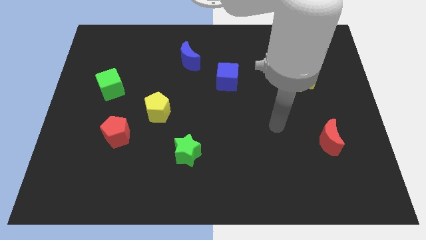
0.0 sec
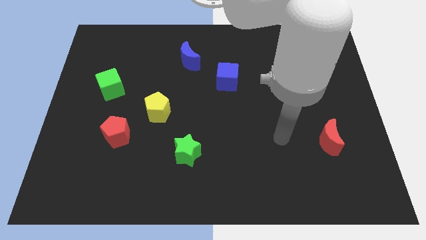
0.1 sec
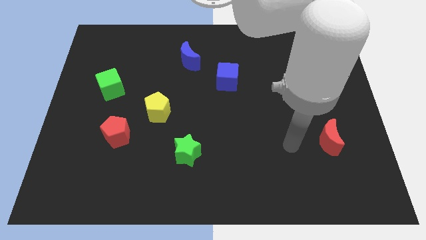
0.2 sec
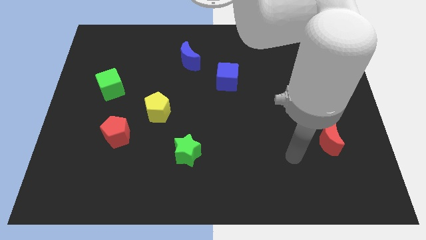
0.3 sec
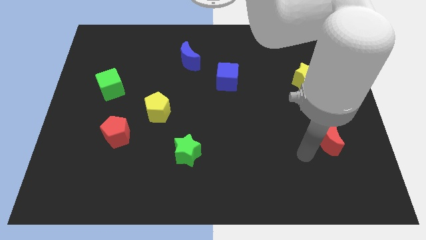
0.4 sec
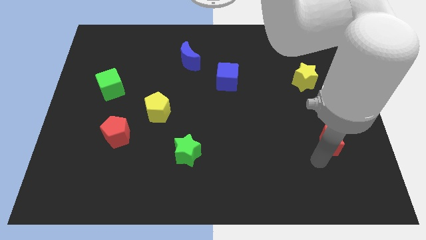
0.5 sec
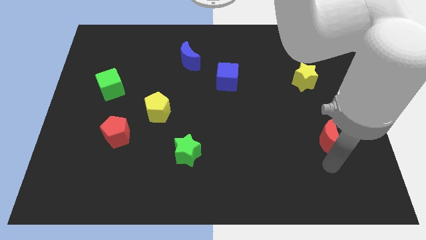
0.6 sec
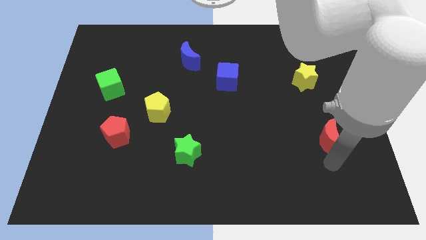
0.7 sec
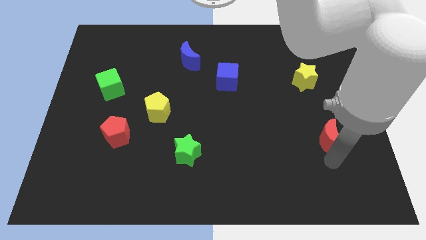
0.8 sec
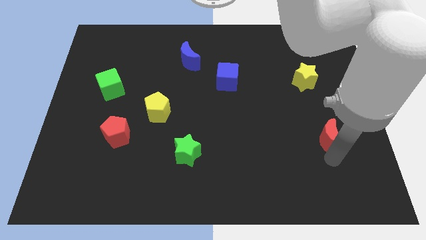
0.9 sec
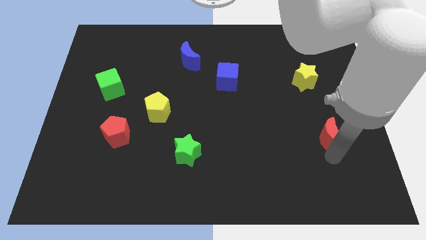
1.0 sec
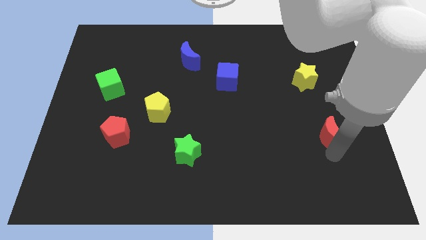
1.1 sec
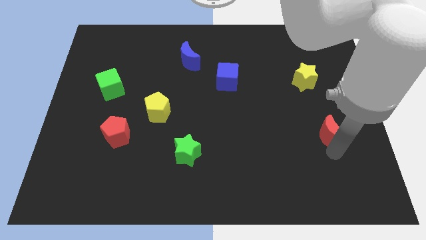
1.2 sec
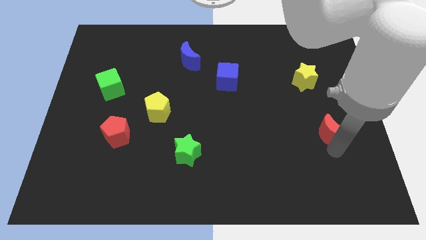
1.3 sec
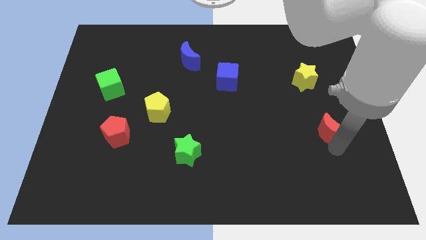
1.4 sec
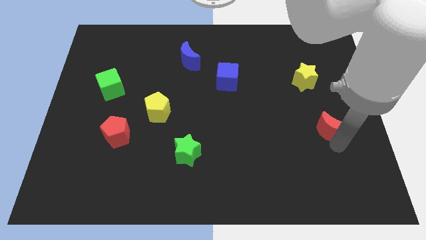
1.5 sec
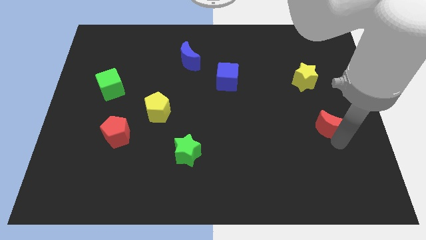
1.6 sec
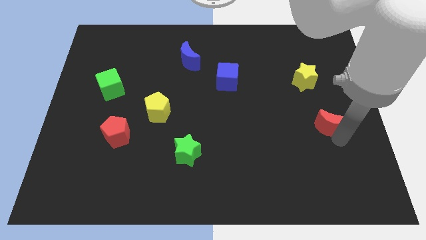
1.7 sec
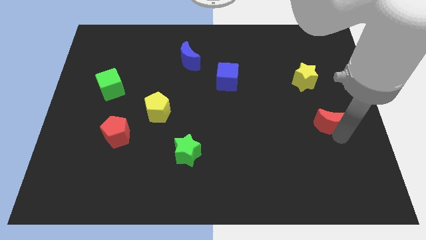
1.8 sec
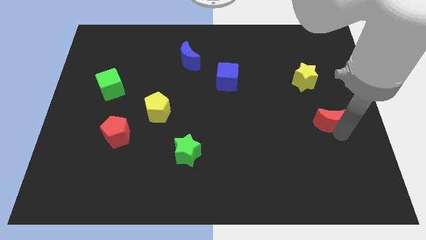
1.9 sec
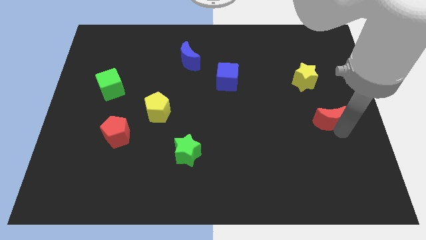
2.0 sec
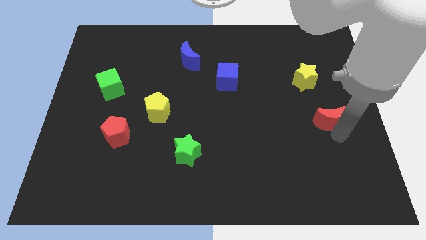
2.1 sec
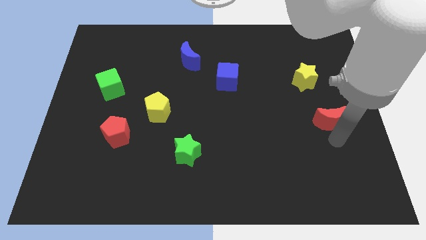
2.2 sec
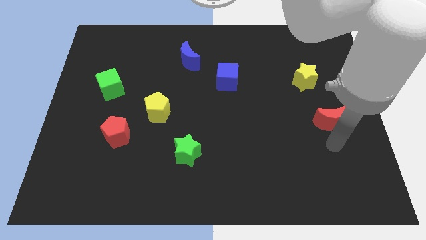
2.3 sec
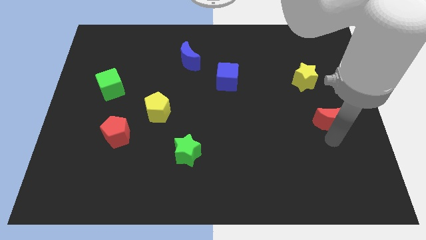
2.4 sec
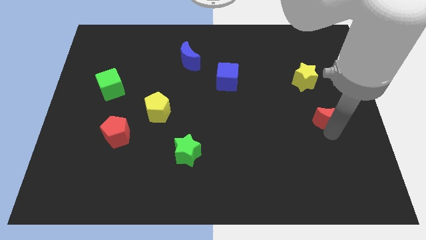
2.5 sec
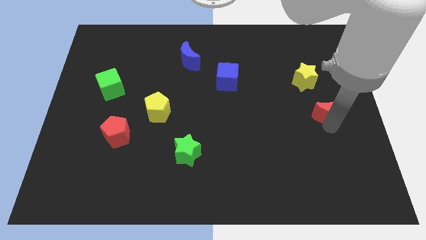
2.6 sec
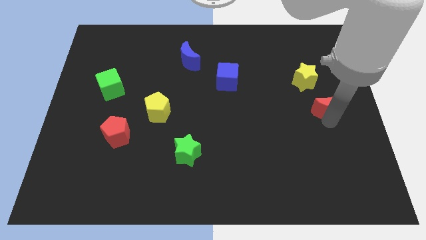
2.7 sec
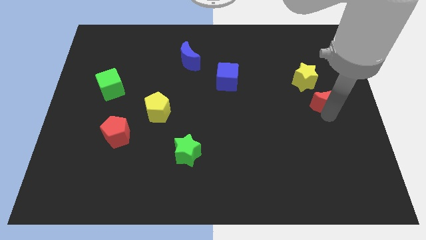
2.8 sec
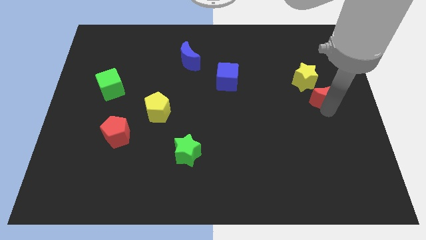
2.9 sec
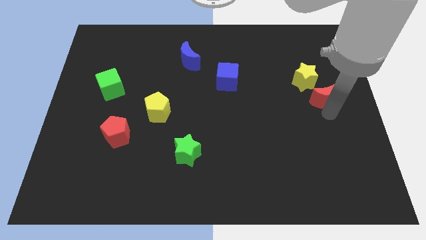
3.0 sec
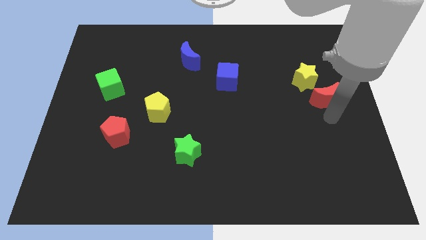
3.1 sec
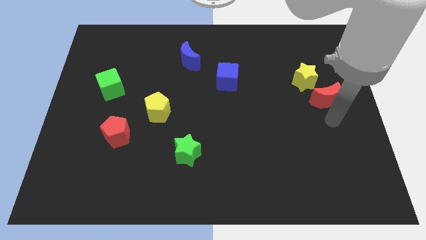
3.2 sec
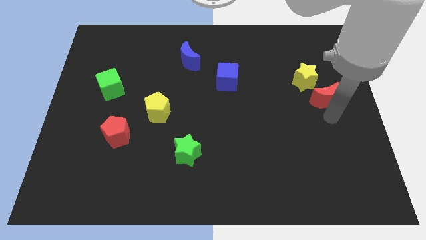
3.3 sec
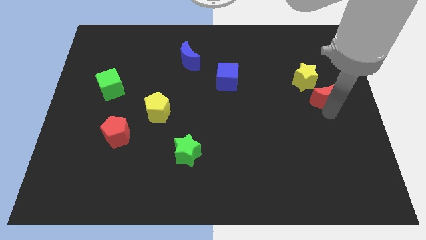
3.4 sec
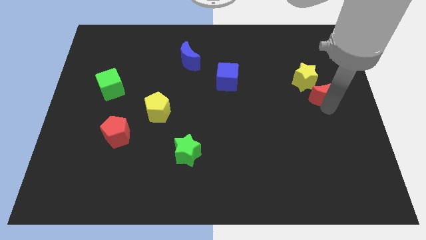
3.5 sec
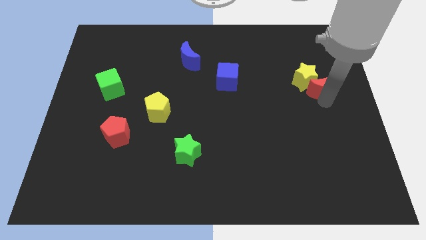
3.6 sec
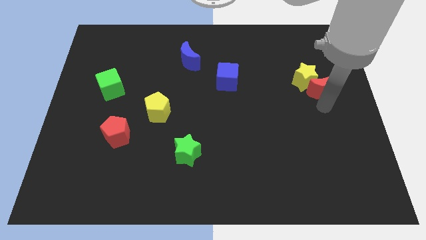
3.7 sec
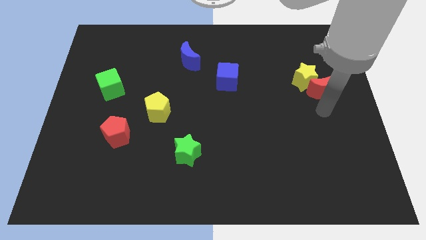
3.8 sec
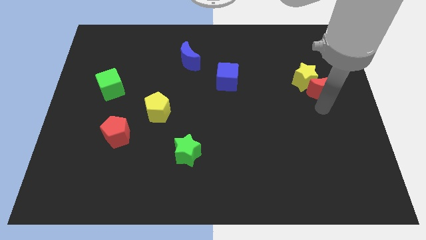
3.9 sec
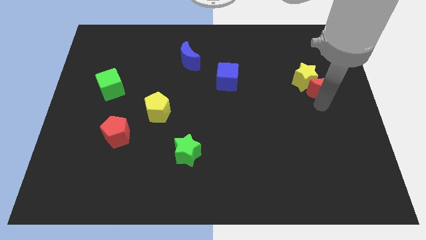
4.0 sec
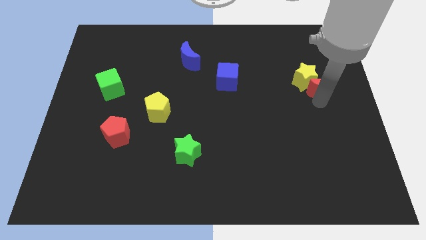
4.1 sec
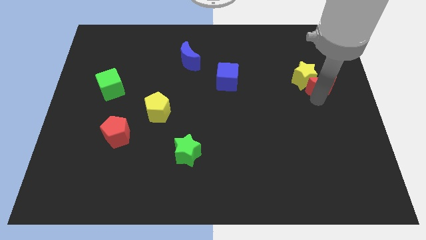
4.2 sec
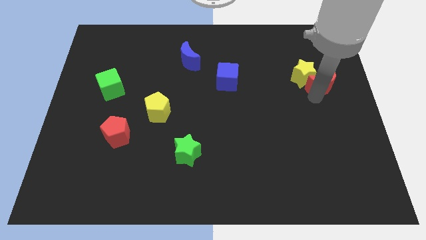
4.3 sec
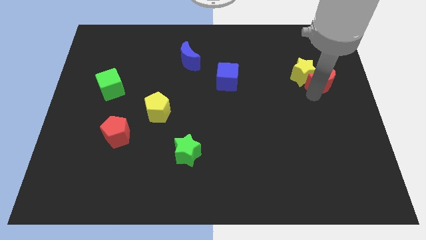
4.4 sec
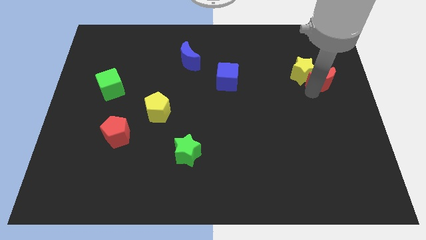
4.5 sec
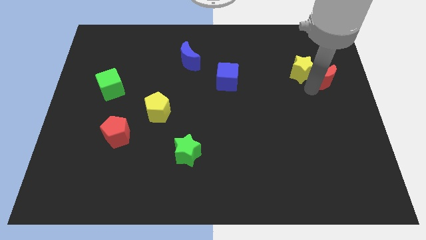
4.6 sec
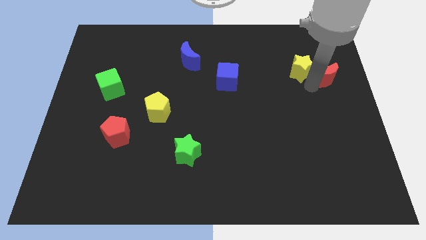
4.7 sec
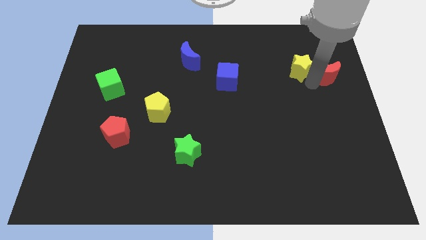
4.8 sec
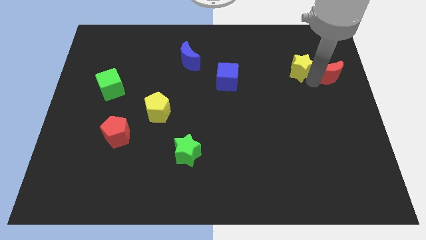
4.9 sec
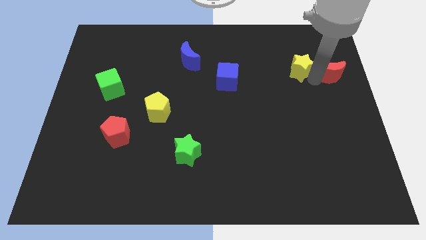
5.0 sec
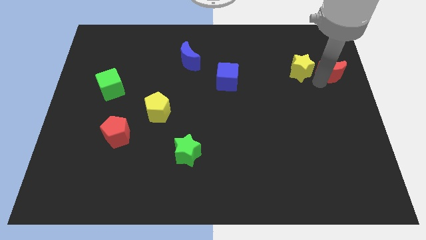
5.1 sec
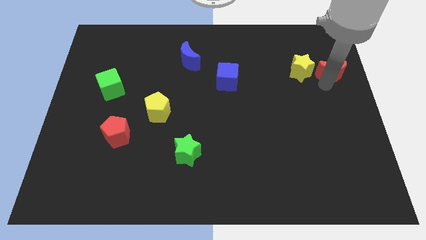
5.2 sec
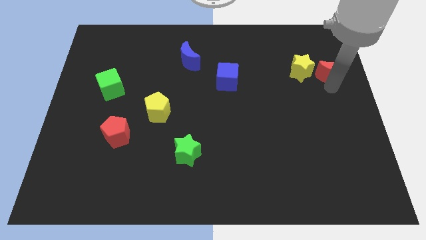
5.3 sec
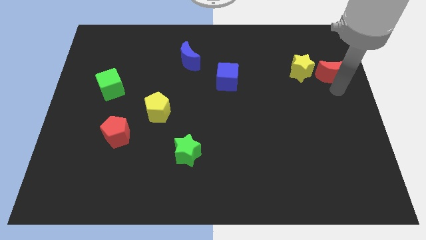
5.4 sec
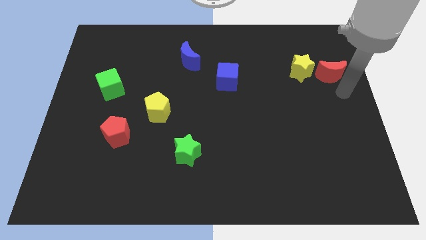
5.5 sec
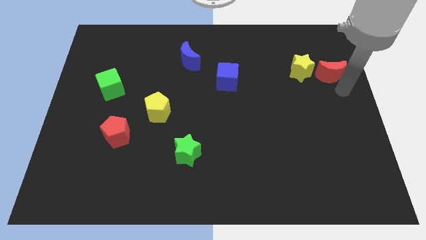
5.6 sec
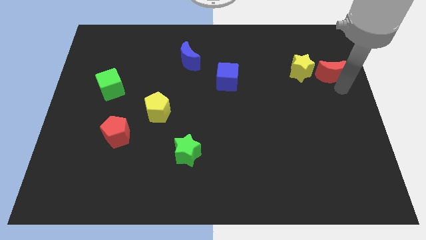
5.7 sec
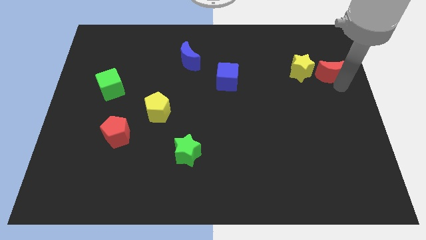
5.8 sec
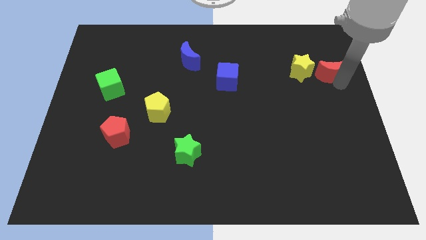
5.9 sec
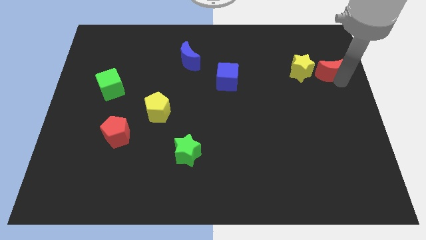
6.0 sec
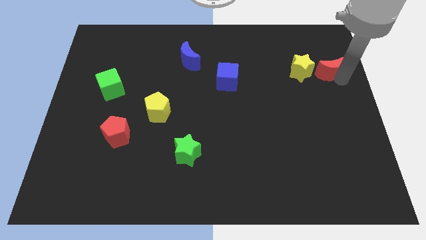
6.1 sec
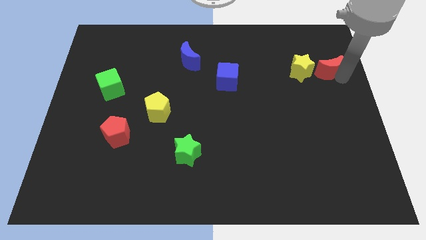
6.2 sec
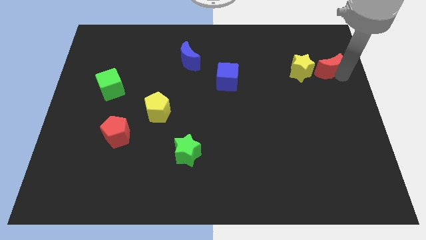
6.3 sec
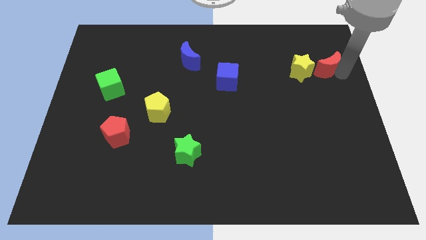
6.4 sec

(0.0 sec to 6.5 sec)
move the red moon diagonally up and to the right of the yellow star
